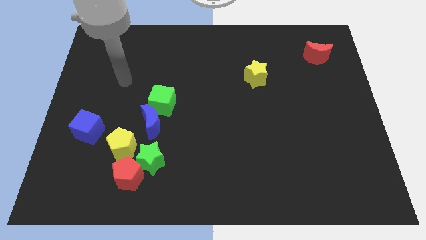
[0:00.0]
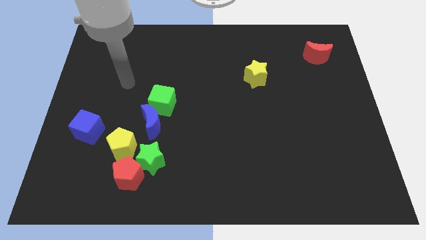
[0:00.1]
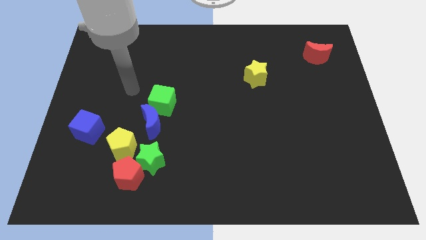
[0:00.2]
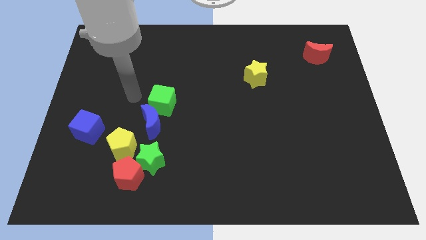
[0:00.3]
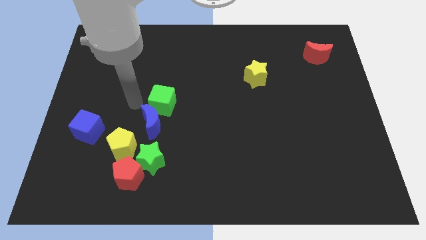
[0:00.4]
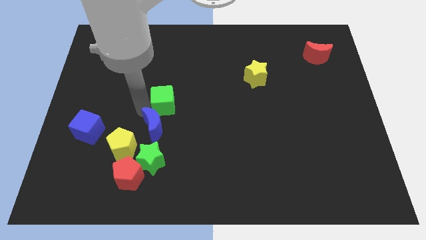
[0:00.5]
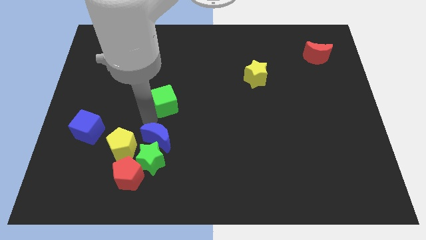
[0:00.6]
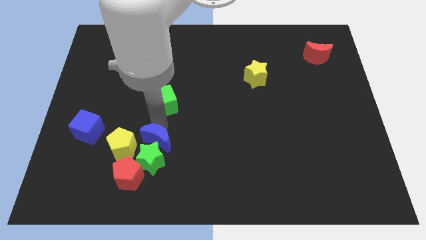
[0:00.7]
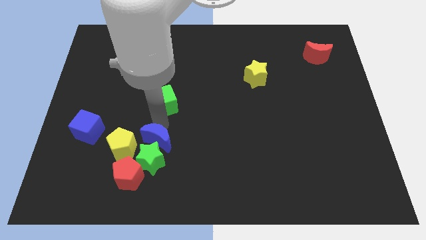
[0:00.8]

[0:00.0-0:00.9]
move the green cube away from the blue moon

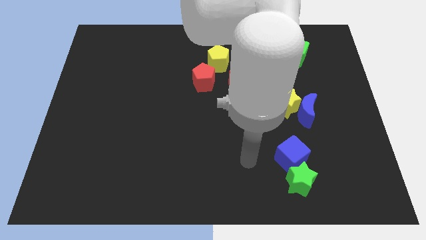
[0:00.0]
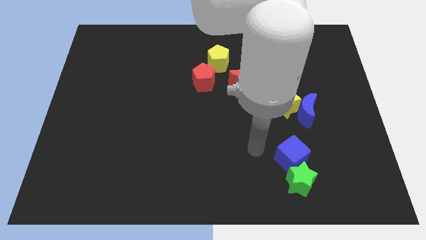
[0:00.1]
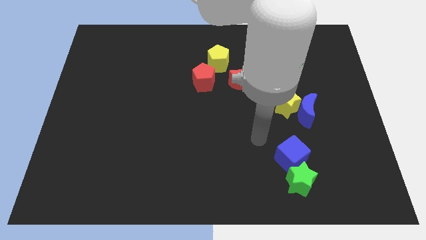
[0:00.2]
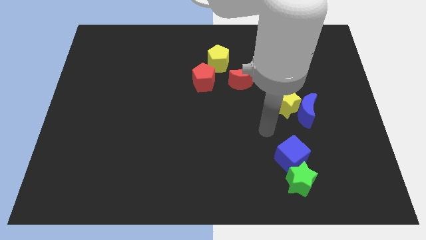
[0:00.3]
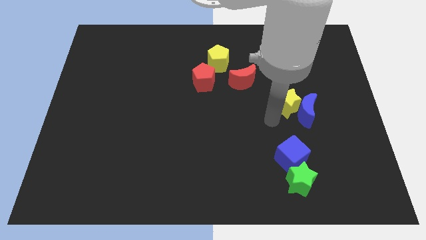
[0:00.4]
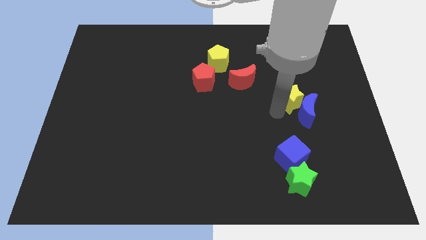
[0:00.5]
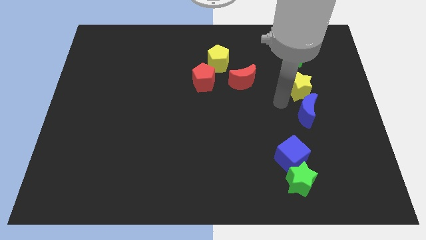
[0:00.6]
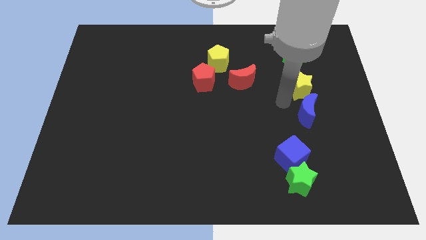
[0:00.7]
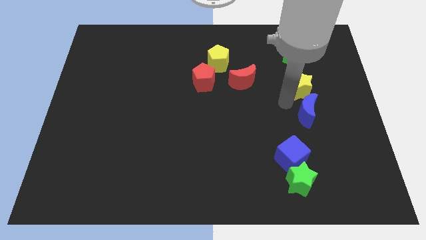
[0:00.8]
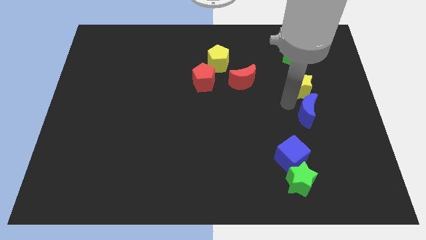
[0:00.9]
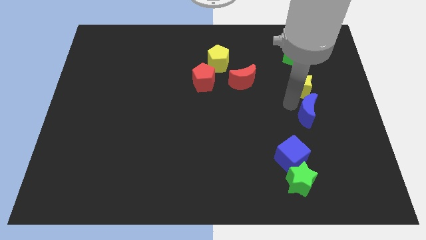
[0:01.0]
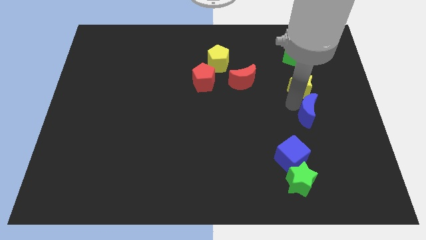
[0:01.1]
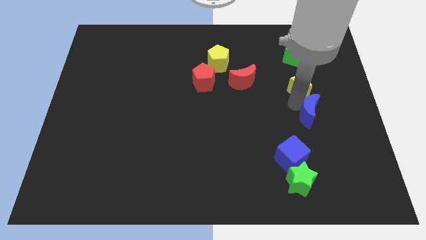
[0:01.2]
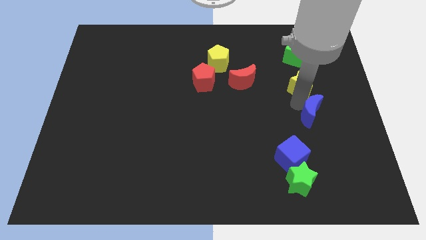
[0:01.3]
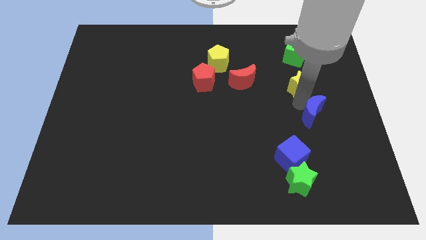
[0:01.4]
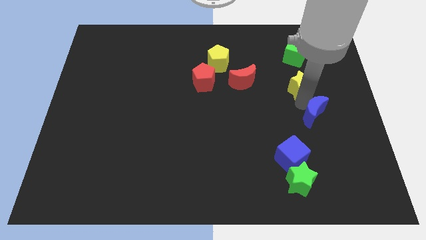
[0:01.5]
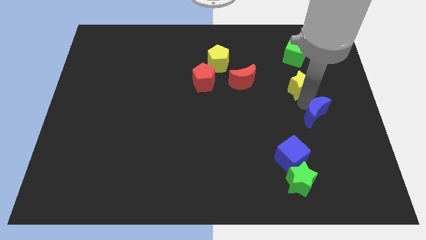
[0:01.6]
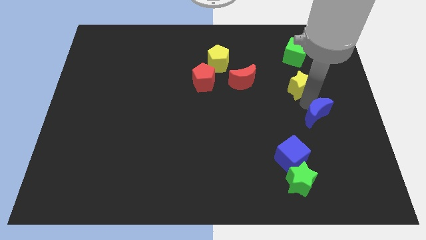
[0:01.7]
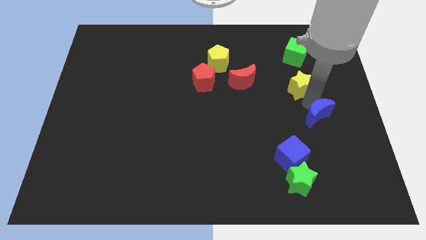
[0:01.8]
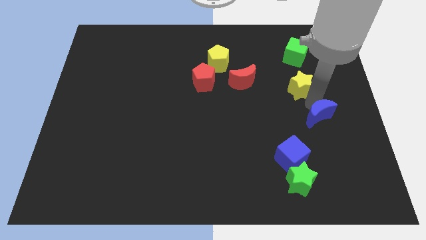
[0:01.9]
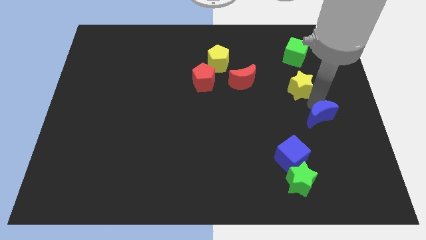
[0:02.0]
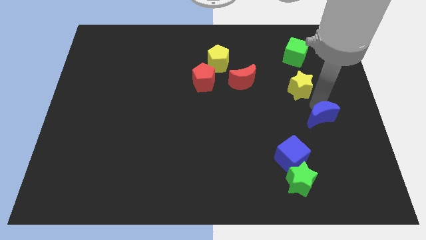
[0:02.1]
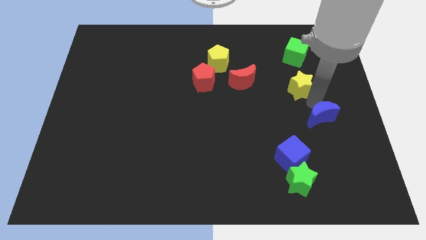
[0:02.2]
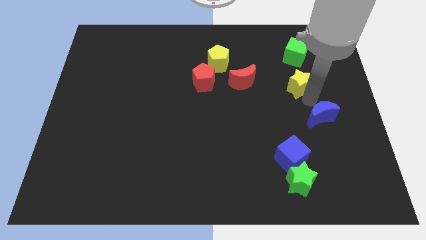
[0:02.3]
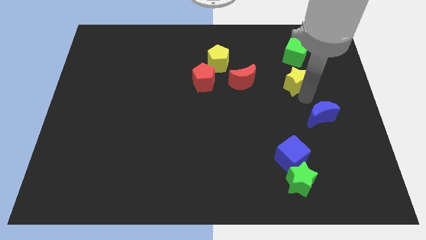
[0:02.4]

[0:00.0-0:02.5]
move the blue moon away from the yellow star

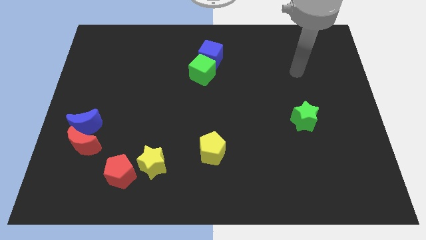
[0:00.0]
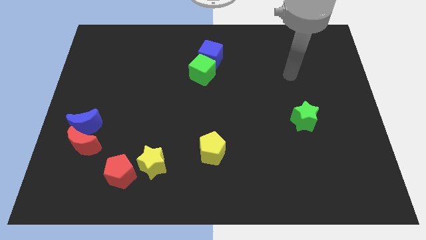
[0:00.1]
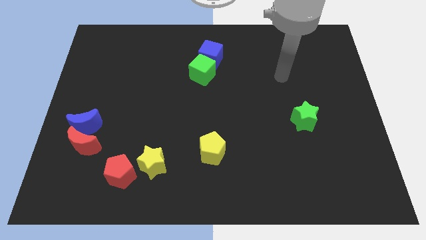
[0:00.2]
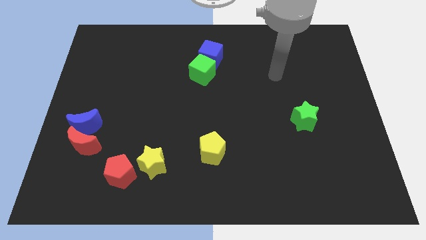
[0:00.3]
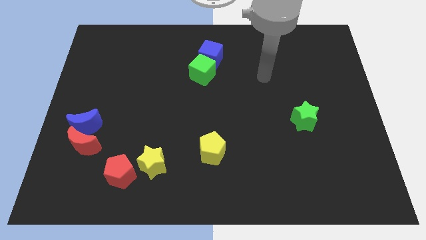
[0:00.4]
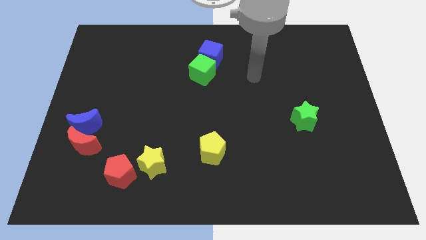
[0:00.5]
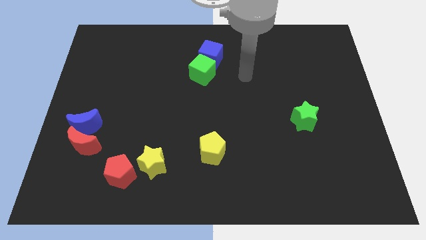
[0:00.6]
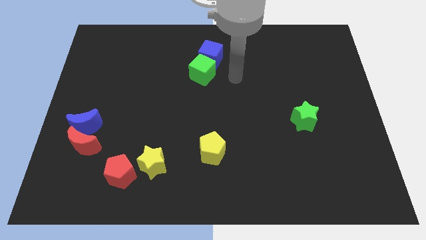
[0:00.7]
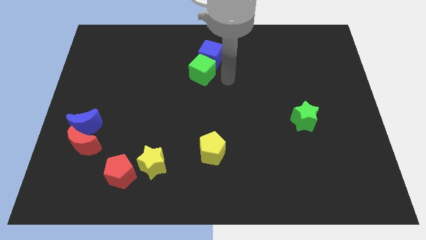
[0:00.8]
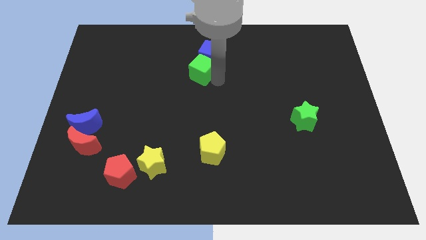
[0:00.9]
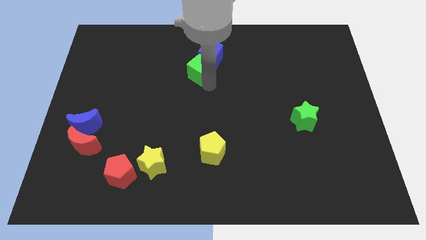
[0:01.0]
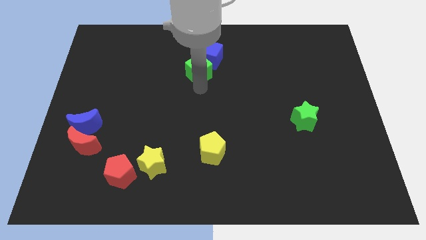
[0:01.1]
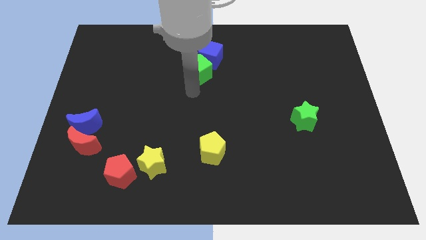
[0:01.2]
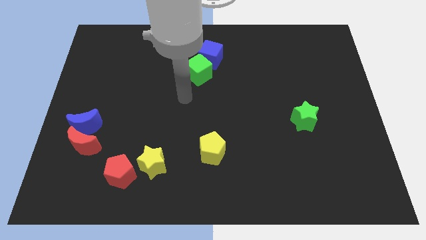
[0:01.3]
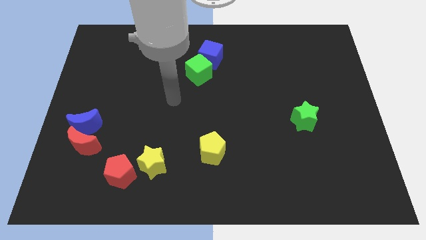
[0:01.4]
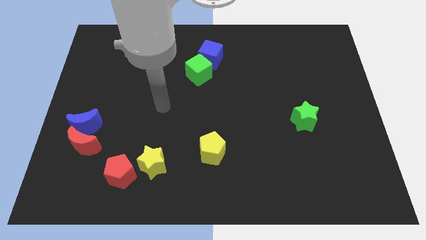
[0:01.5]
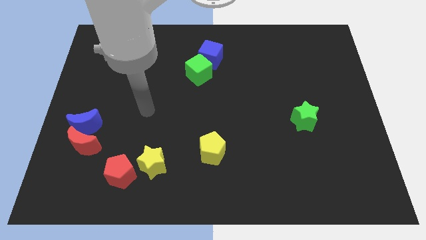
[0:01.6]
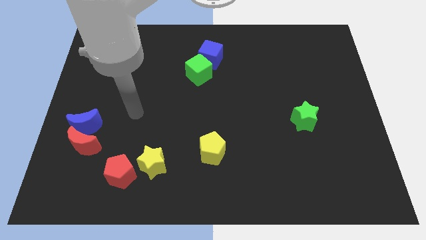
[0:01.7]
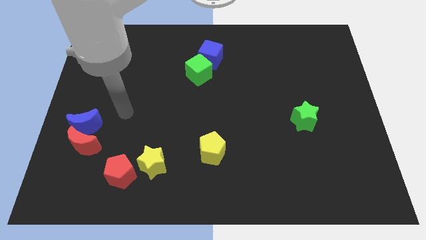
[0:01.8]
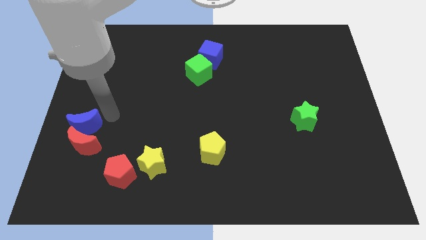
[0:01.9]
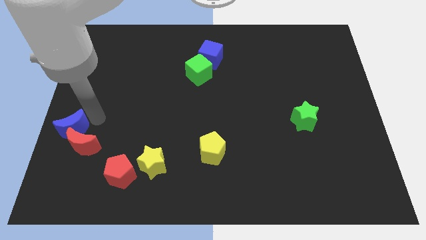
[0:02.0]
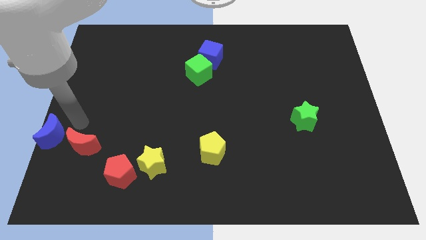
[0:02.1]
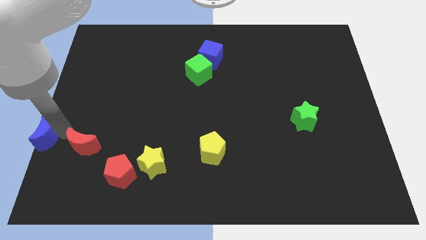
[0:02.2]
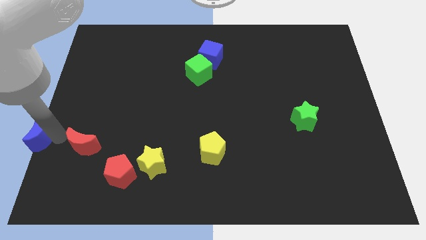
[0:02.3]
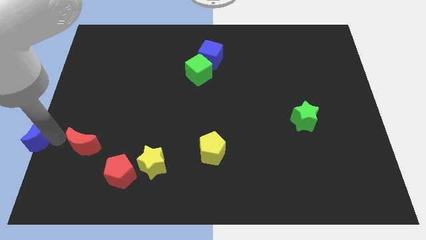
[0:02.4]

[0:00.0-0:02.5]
move the red moon away from the blue moon

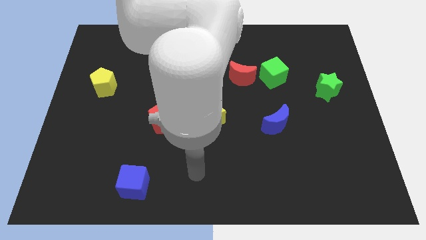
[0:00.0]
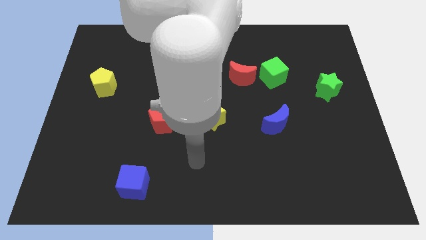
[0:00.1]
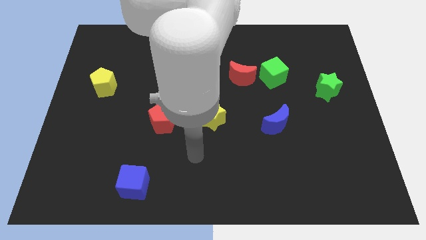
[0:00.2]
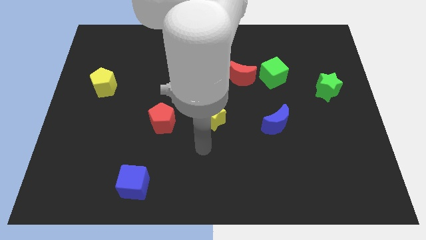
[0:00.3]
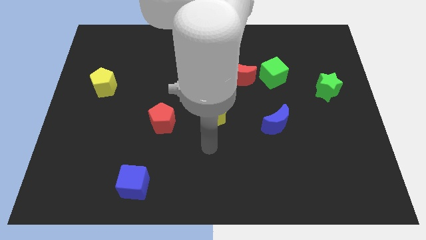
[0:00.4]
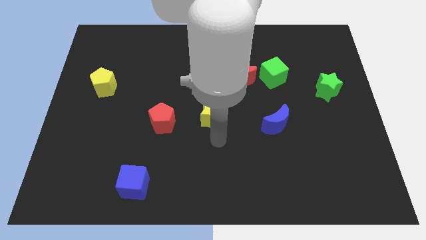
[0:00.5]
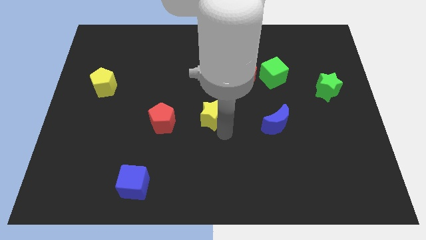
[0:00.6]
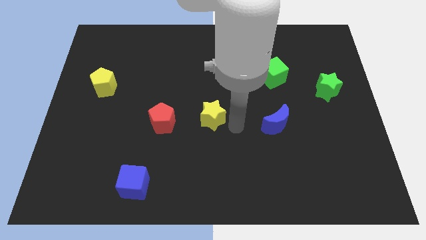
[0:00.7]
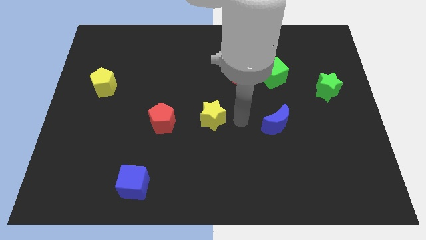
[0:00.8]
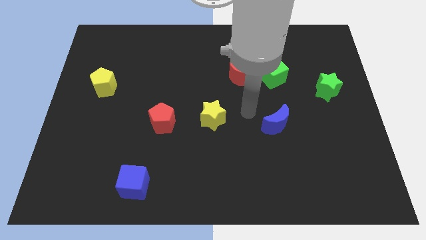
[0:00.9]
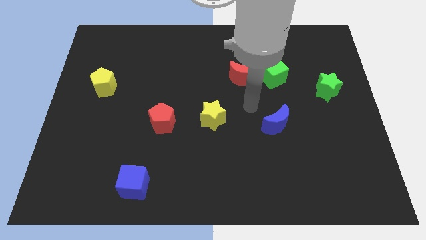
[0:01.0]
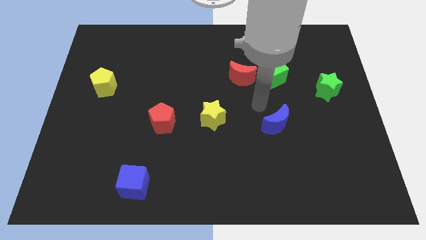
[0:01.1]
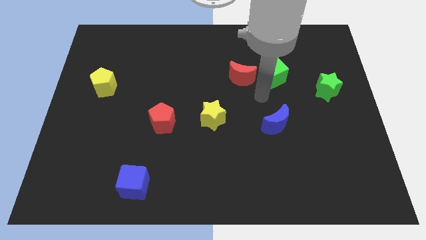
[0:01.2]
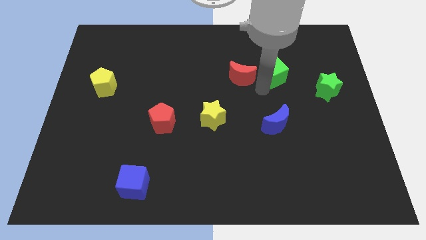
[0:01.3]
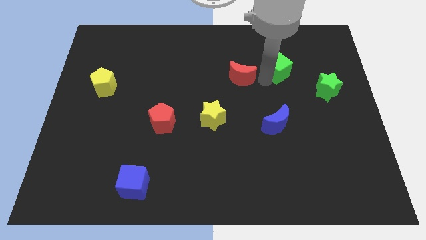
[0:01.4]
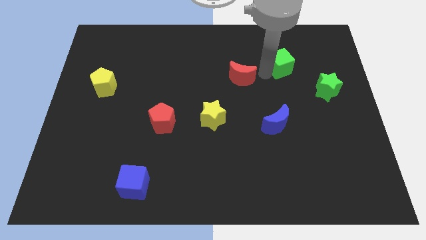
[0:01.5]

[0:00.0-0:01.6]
pull the red moon apart from the green cube

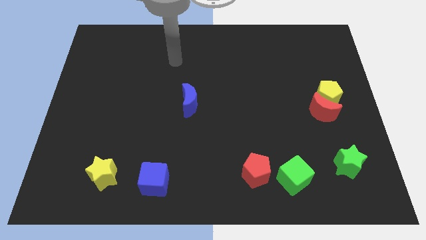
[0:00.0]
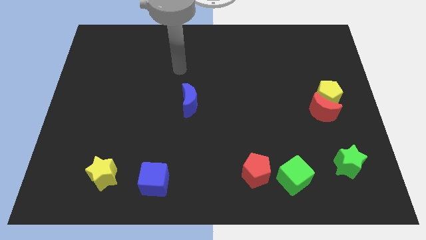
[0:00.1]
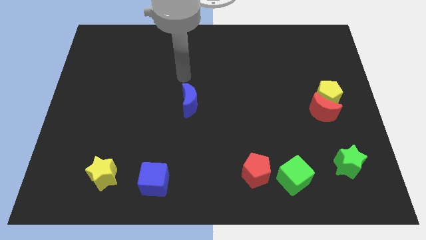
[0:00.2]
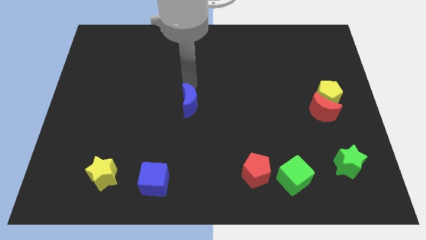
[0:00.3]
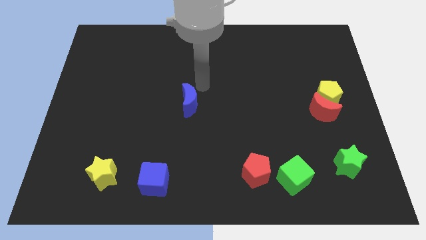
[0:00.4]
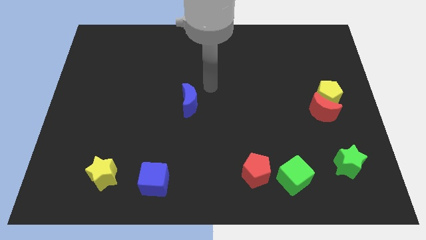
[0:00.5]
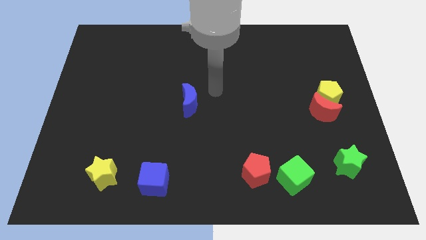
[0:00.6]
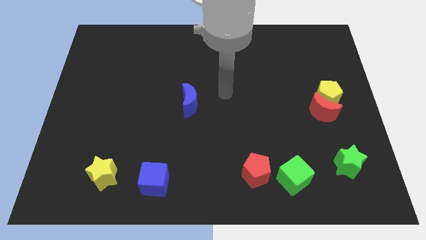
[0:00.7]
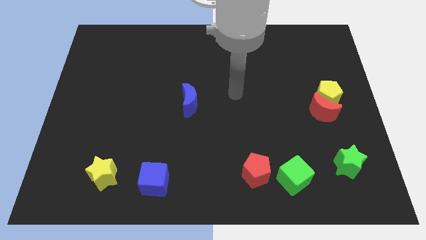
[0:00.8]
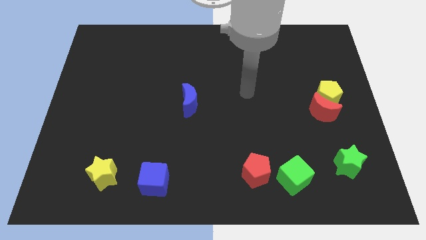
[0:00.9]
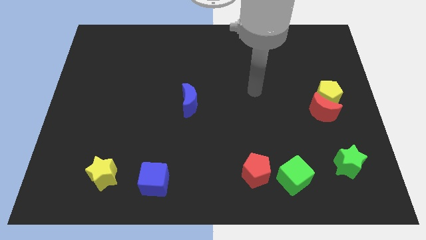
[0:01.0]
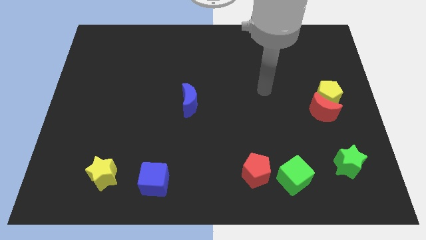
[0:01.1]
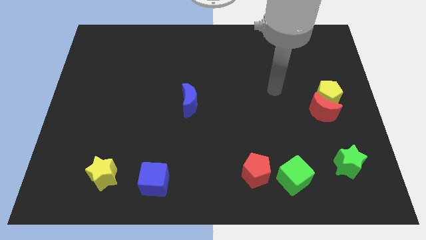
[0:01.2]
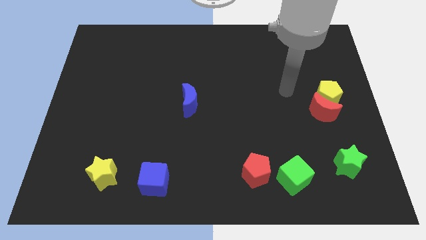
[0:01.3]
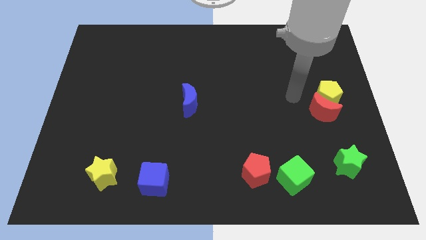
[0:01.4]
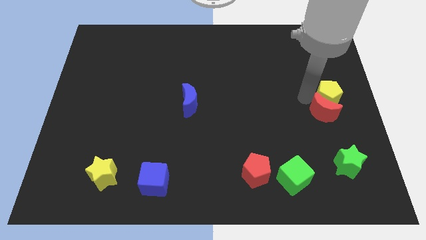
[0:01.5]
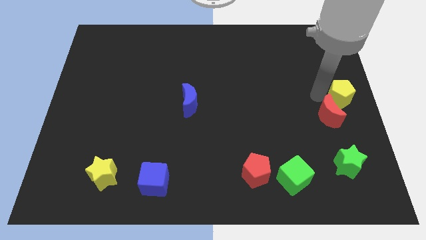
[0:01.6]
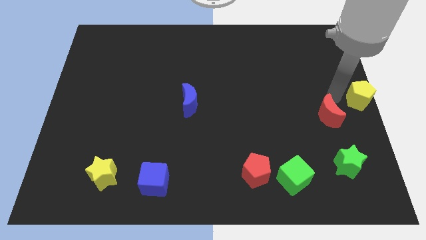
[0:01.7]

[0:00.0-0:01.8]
move the red moon away from the yellow pentagon
